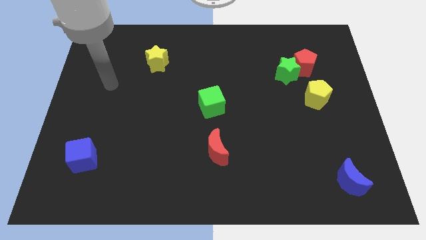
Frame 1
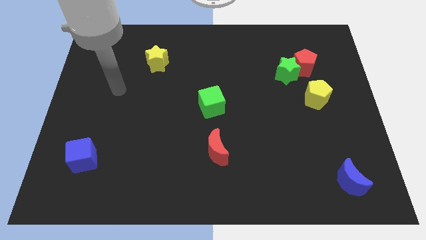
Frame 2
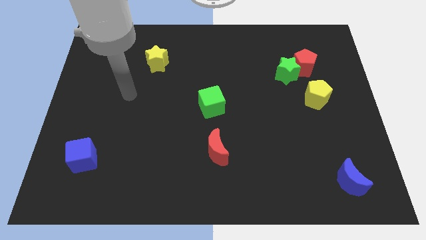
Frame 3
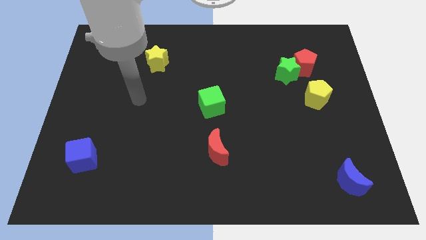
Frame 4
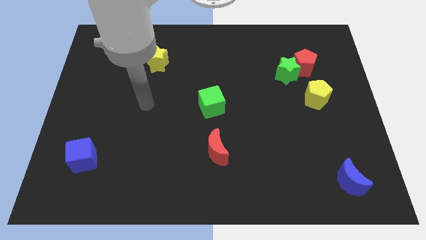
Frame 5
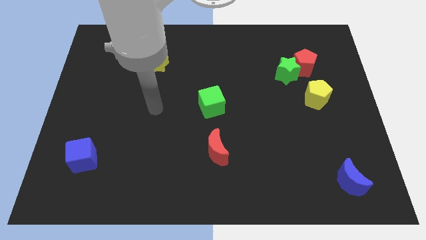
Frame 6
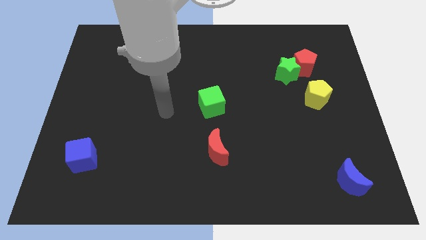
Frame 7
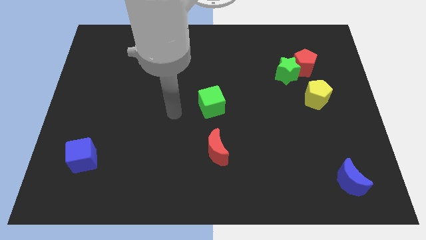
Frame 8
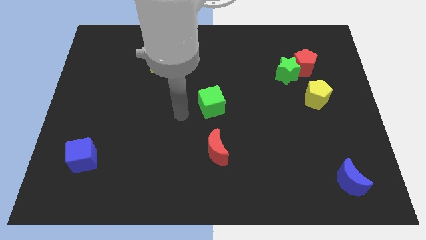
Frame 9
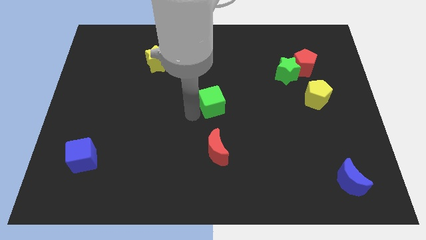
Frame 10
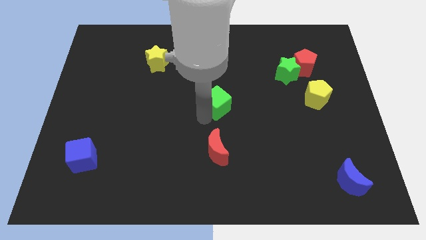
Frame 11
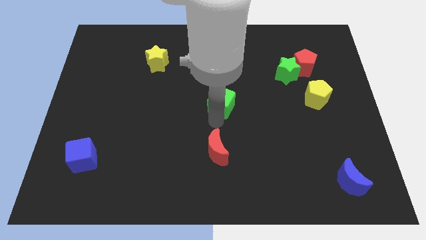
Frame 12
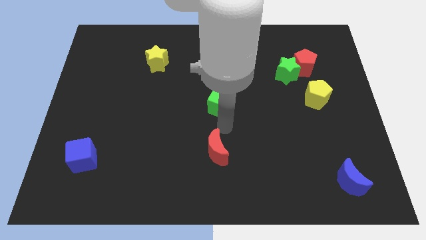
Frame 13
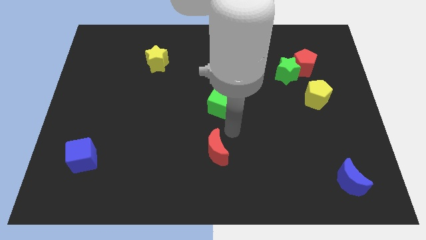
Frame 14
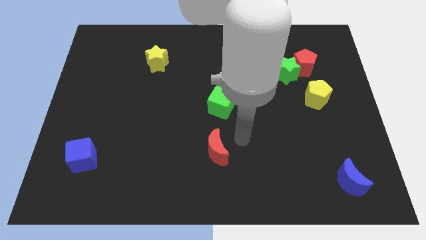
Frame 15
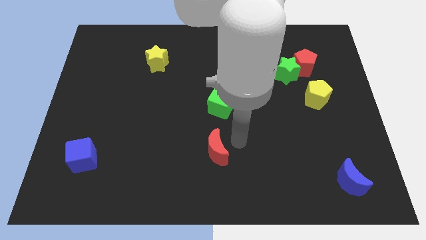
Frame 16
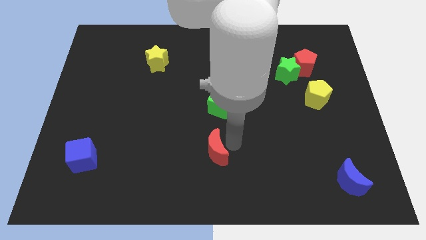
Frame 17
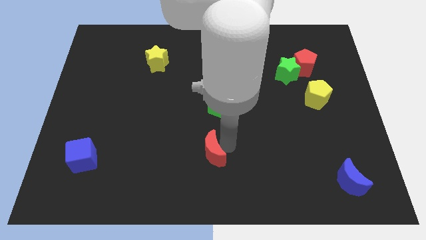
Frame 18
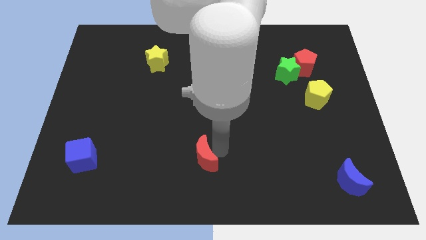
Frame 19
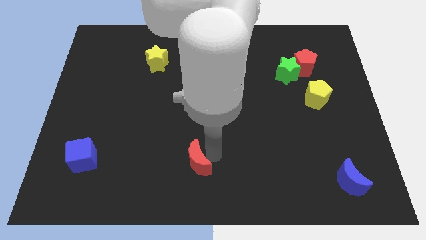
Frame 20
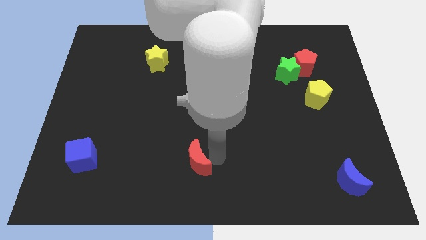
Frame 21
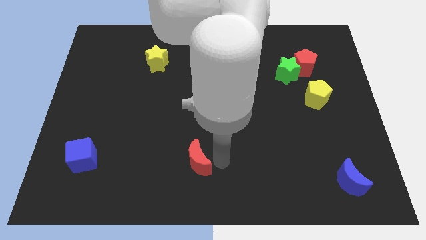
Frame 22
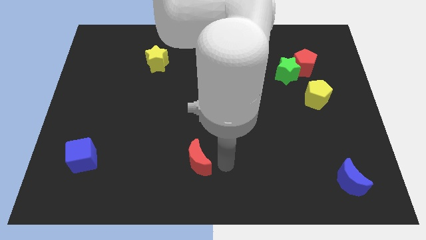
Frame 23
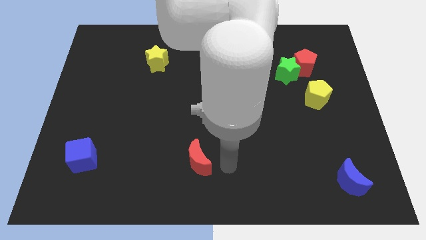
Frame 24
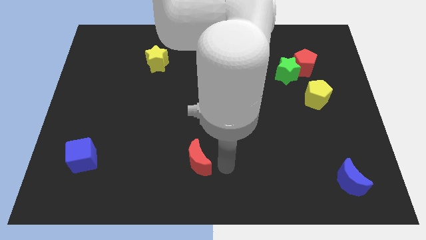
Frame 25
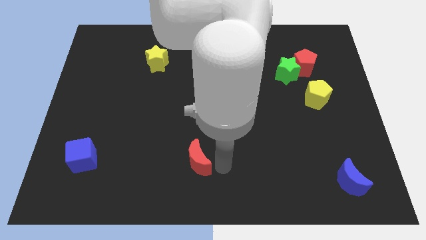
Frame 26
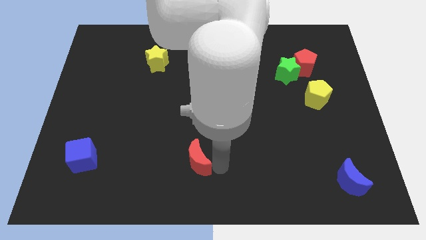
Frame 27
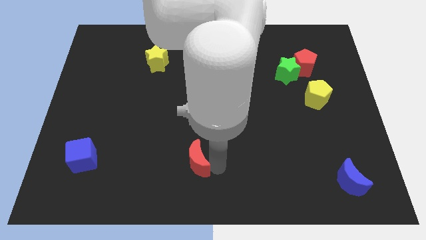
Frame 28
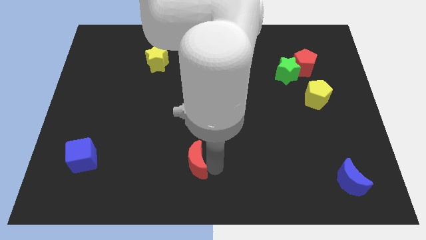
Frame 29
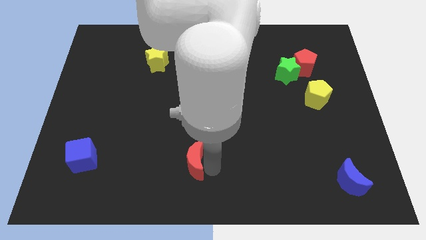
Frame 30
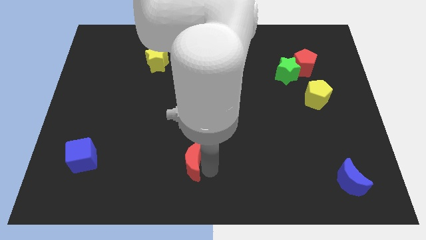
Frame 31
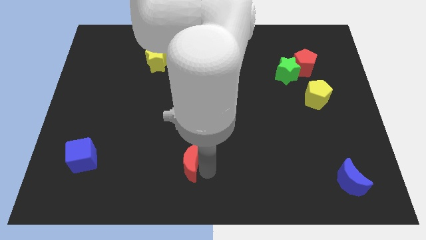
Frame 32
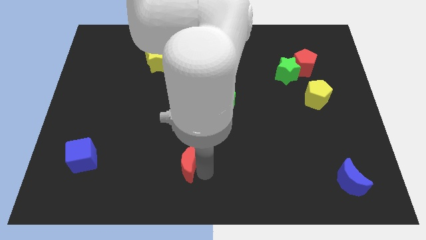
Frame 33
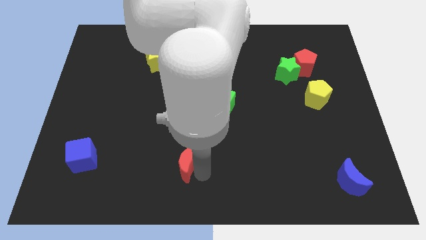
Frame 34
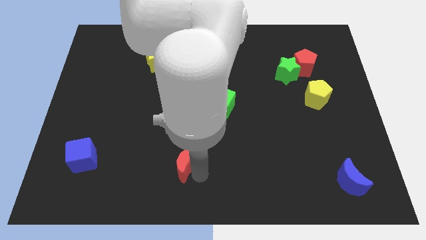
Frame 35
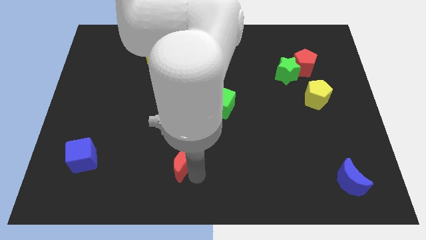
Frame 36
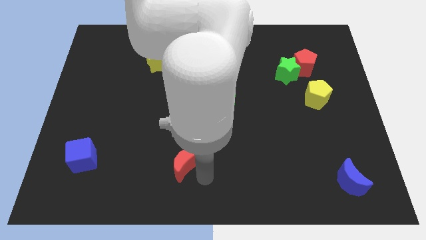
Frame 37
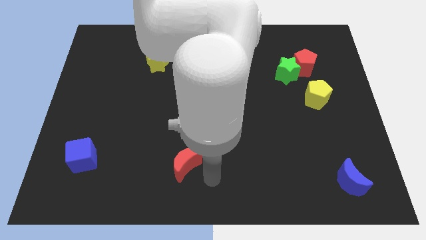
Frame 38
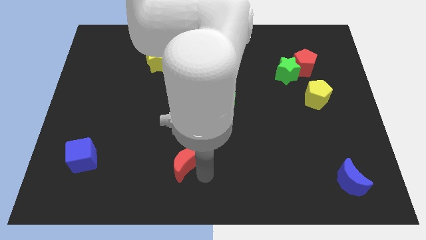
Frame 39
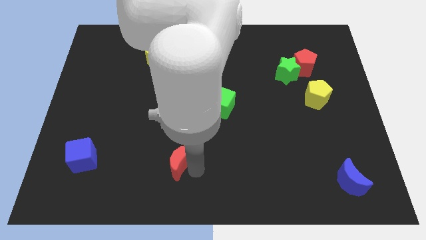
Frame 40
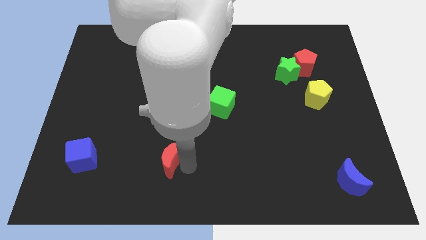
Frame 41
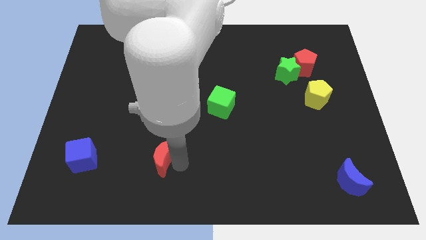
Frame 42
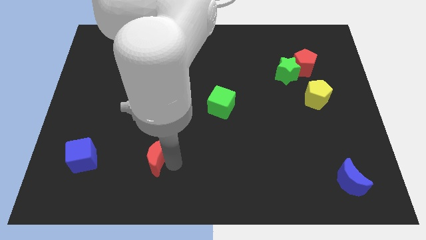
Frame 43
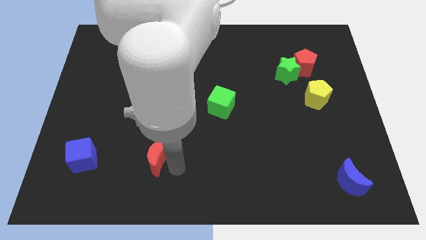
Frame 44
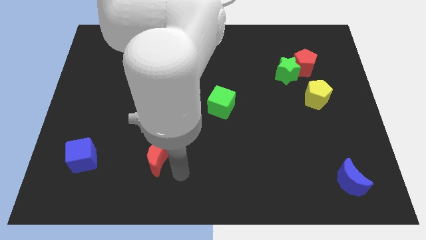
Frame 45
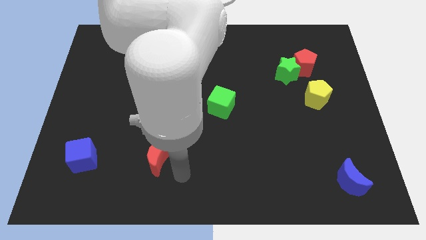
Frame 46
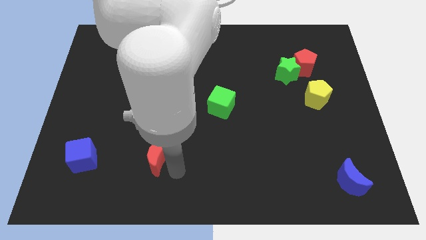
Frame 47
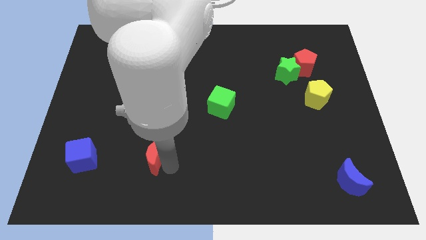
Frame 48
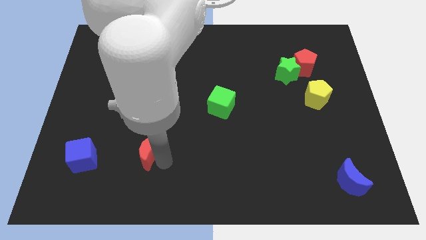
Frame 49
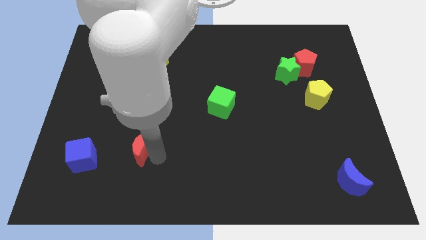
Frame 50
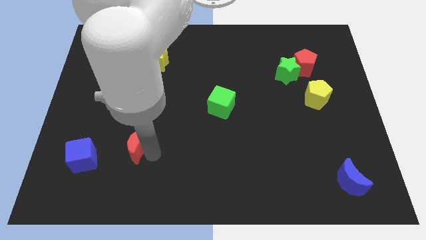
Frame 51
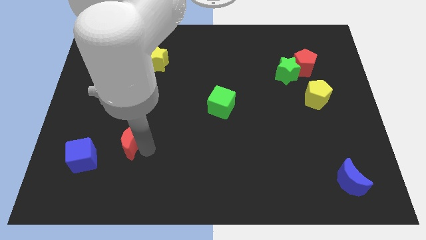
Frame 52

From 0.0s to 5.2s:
put the red moon to the top right of the blue cube

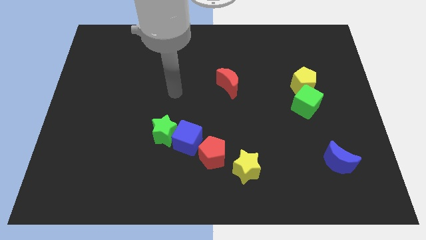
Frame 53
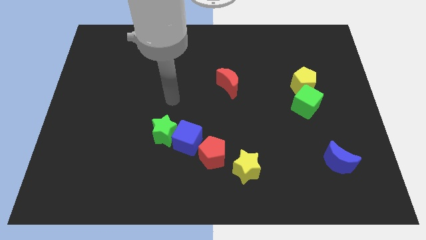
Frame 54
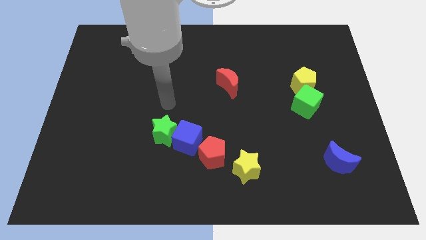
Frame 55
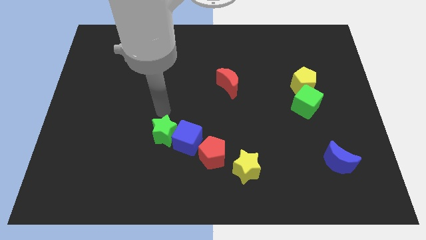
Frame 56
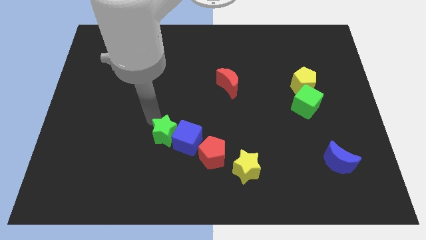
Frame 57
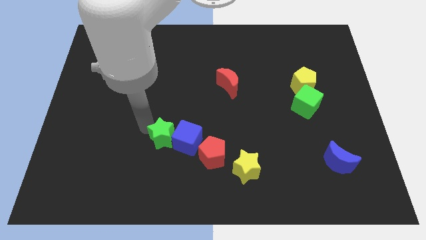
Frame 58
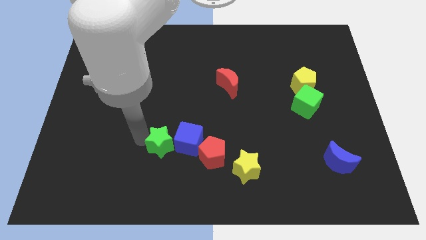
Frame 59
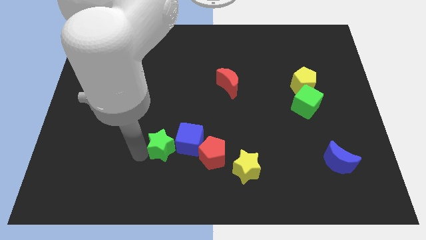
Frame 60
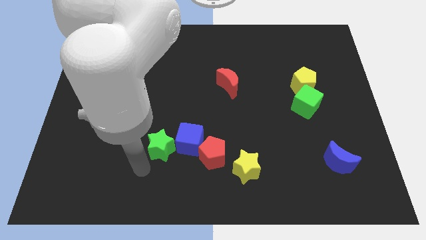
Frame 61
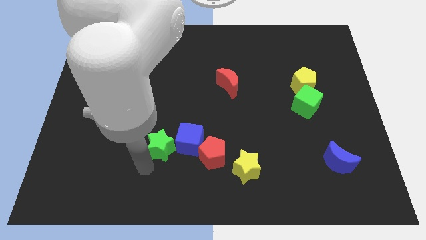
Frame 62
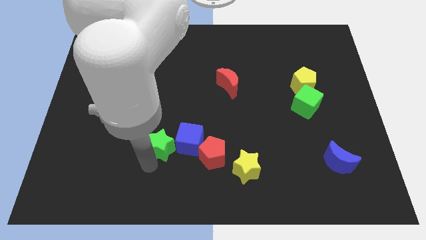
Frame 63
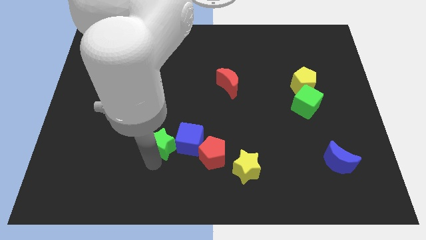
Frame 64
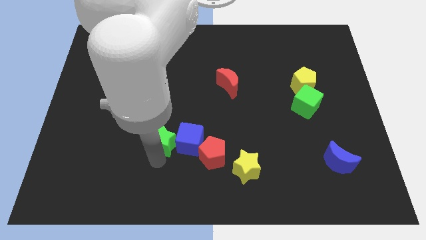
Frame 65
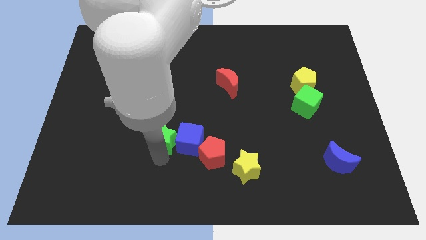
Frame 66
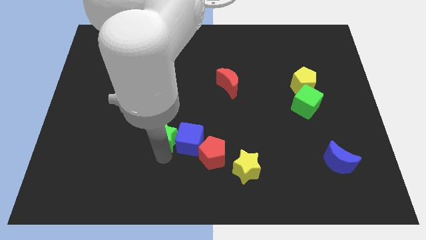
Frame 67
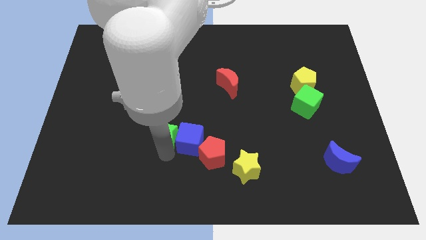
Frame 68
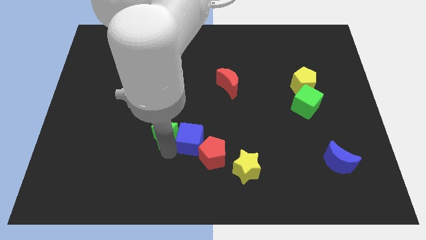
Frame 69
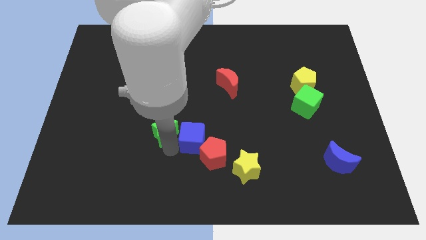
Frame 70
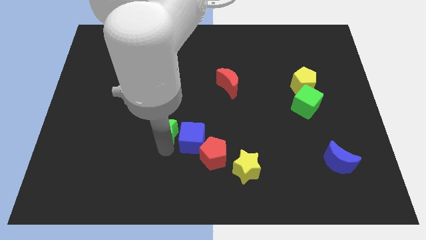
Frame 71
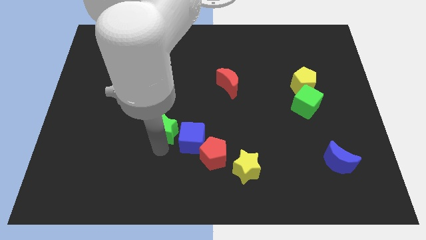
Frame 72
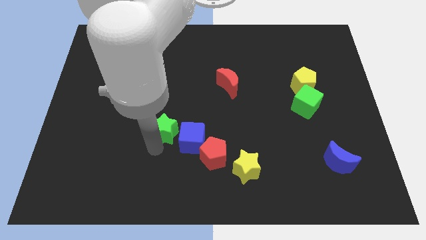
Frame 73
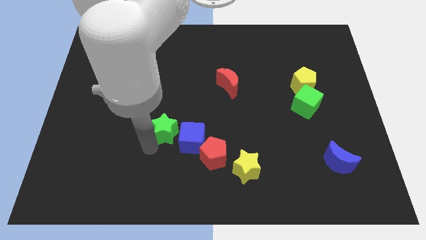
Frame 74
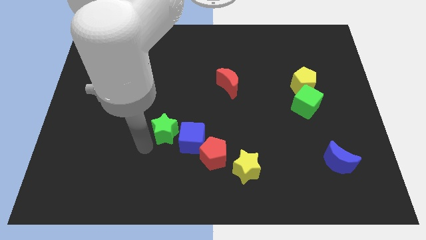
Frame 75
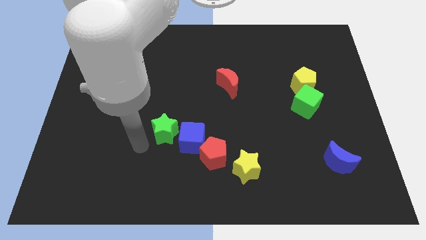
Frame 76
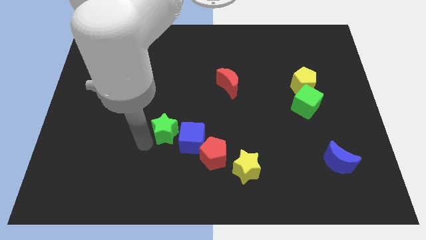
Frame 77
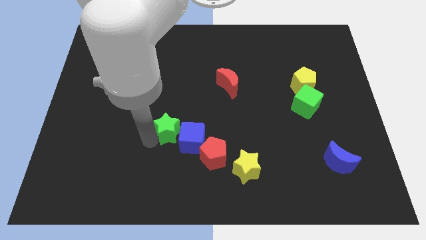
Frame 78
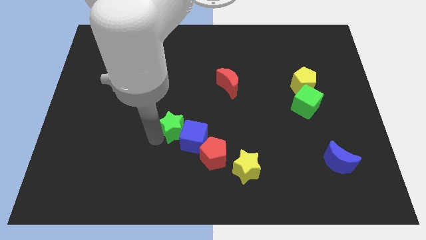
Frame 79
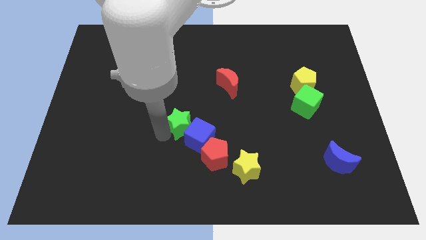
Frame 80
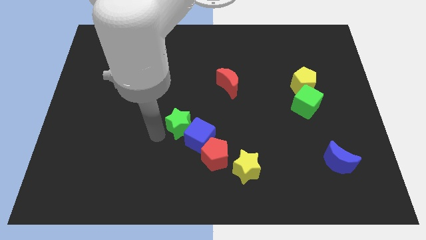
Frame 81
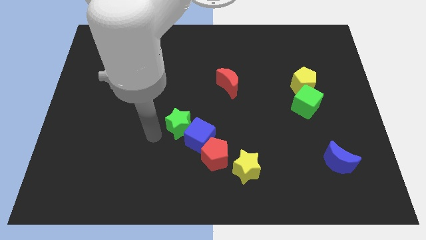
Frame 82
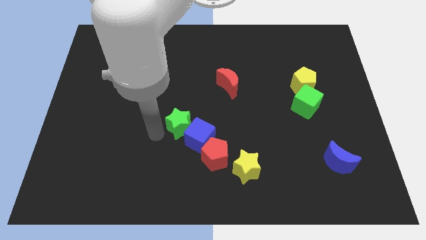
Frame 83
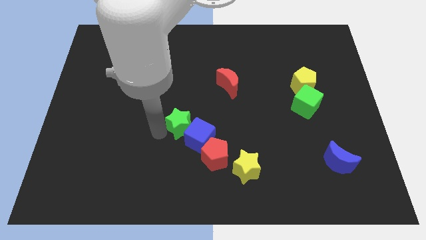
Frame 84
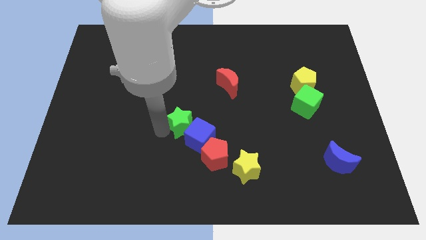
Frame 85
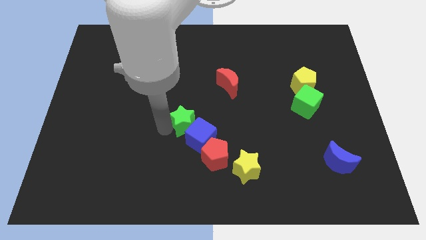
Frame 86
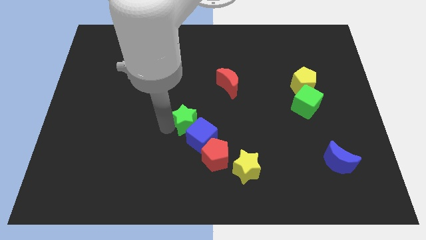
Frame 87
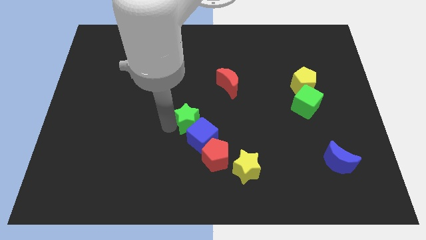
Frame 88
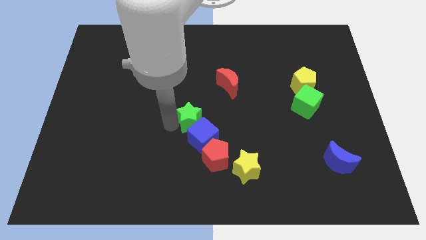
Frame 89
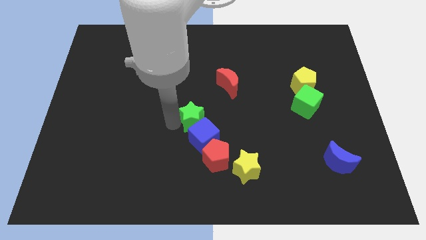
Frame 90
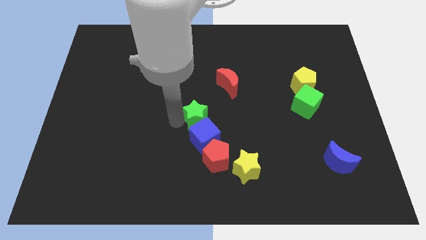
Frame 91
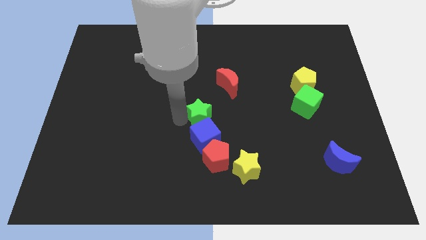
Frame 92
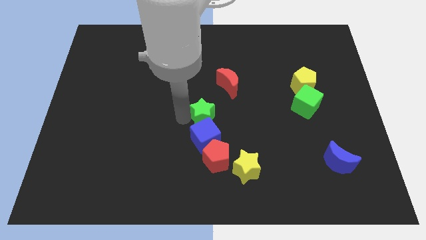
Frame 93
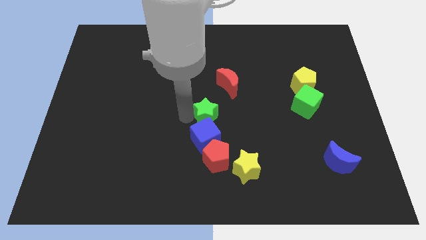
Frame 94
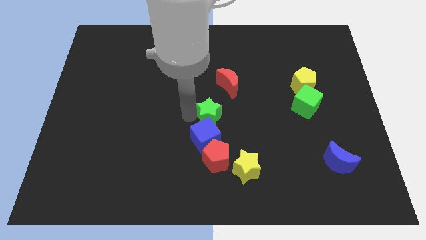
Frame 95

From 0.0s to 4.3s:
move the green star to the bottom of the red moon
